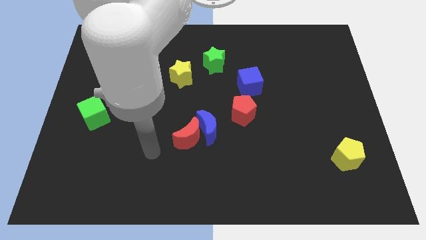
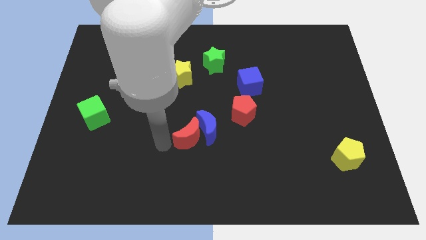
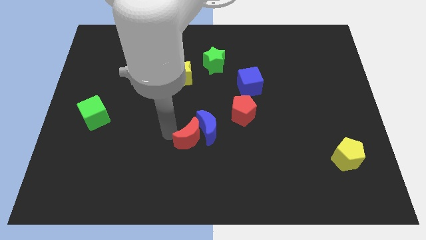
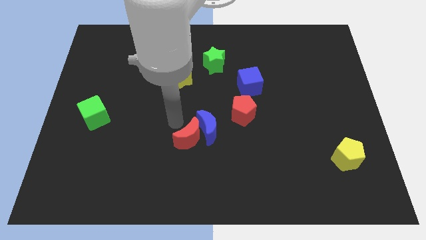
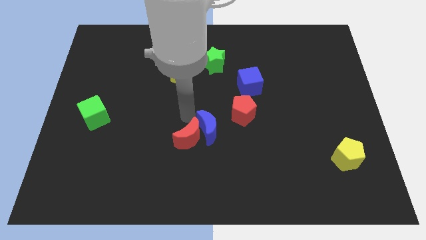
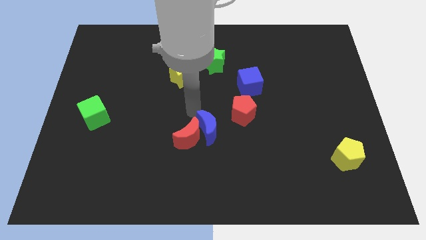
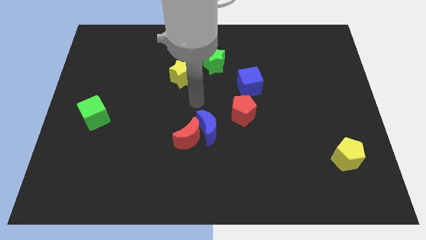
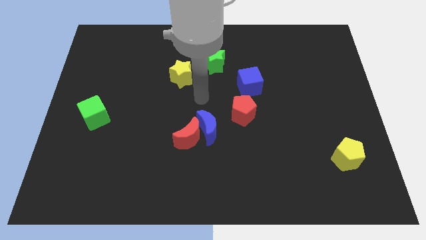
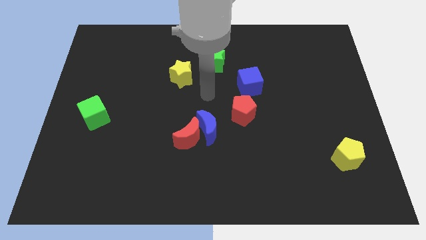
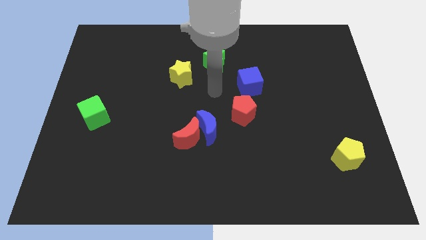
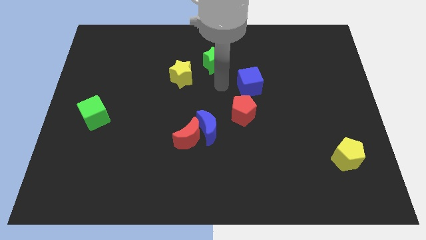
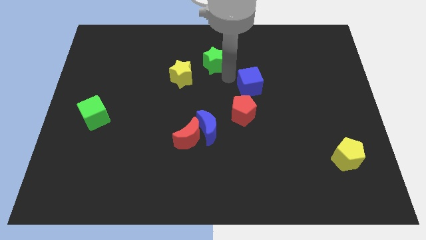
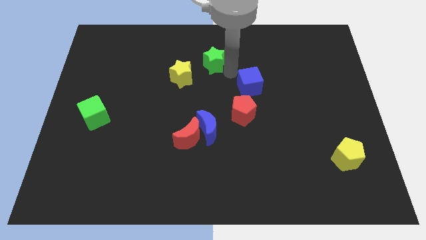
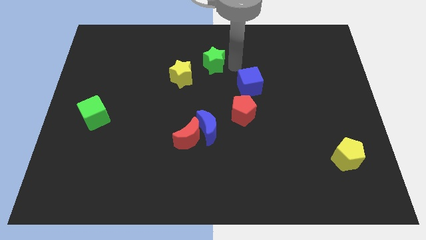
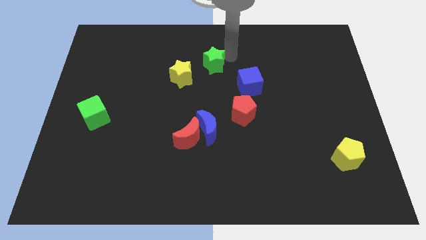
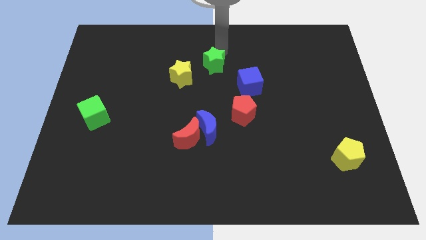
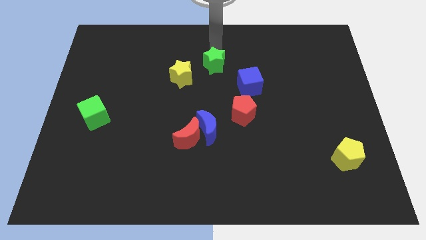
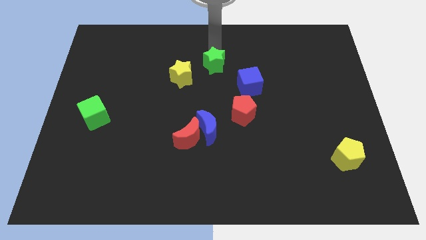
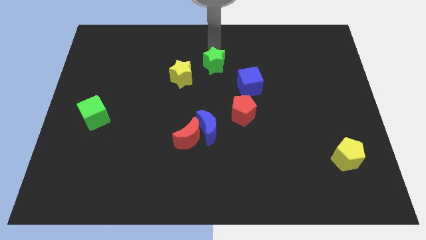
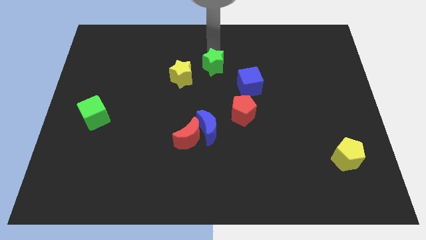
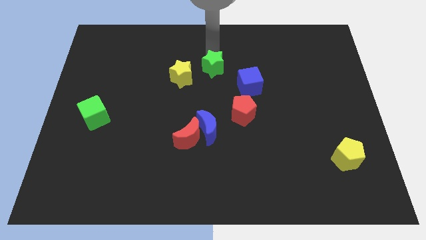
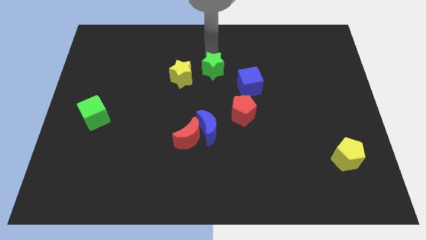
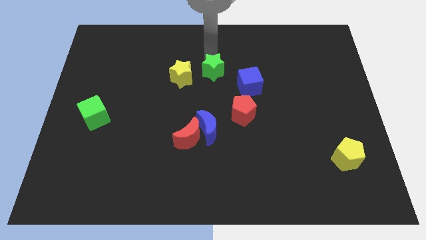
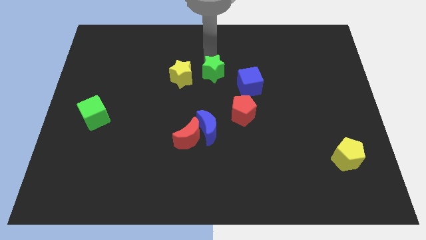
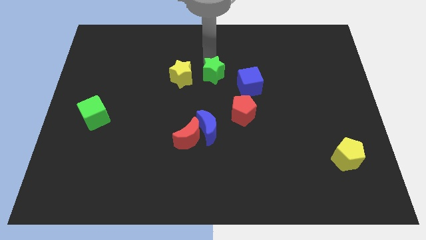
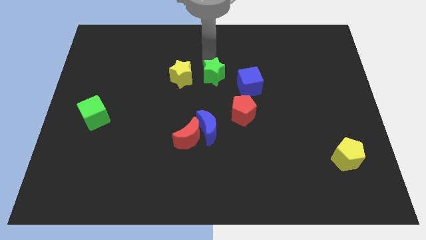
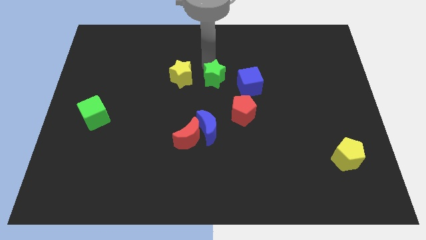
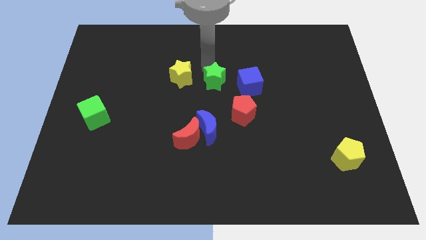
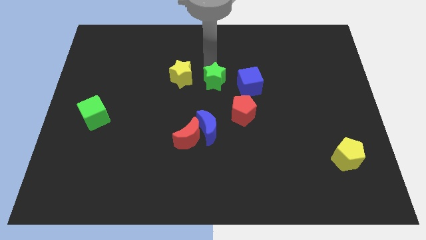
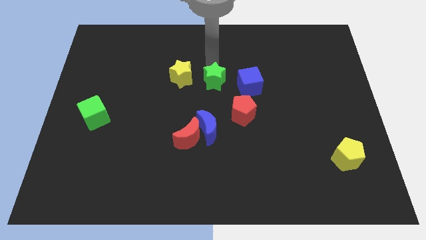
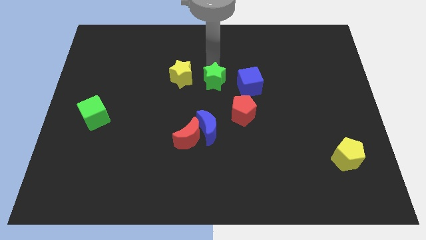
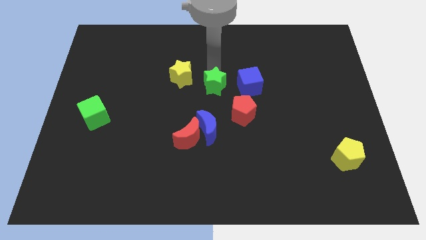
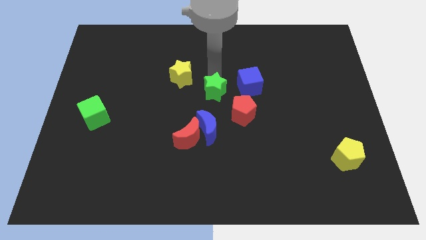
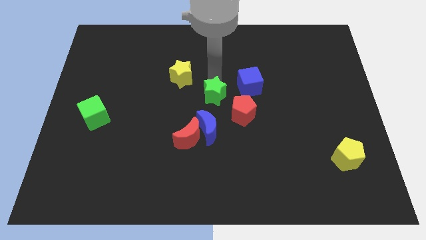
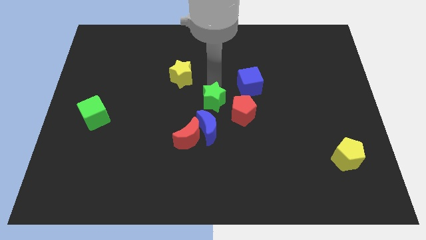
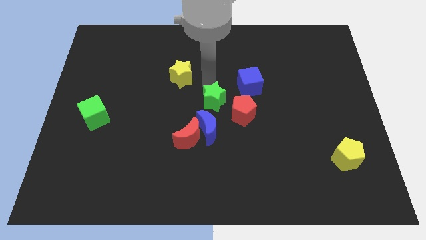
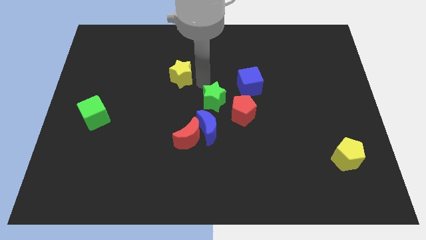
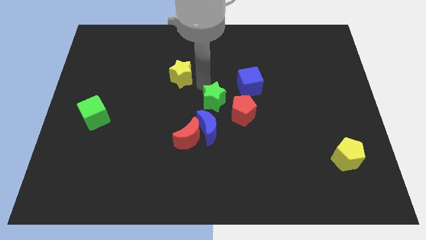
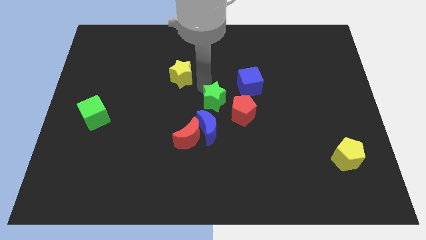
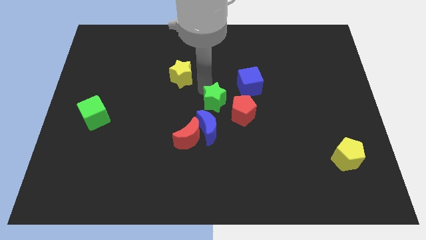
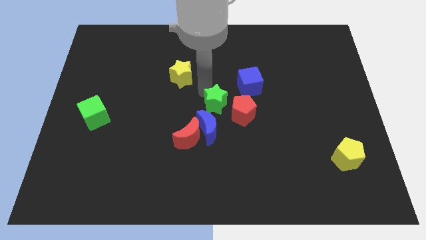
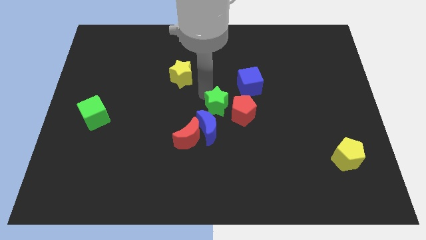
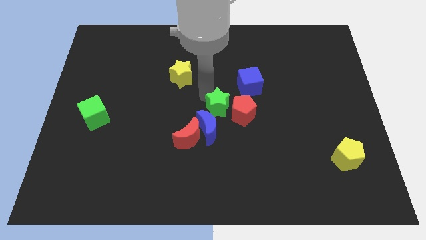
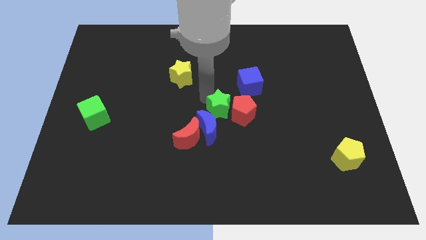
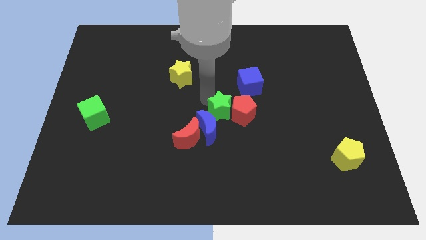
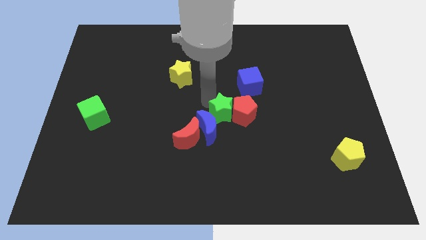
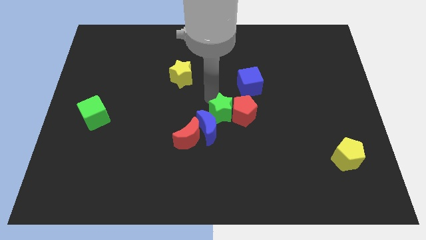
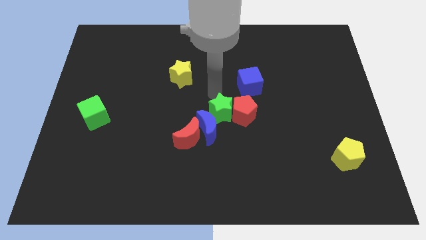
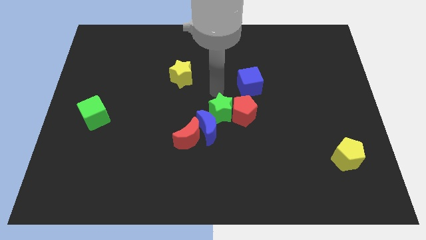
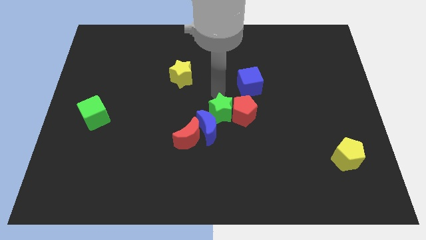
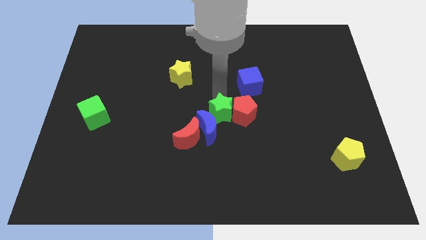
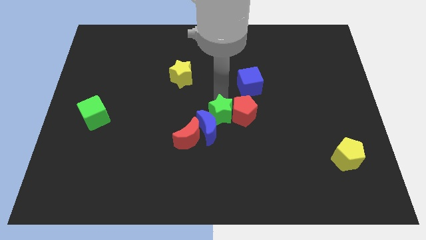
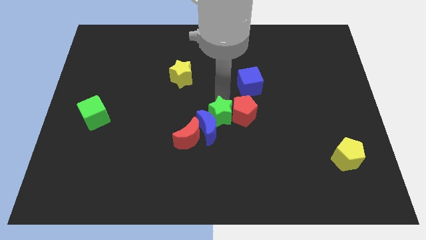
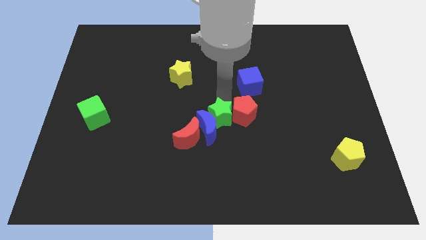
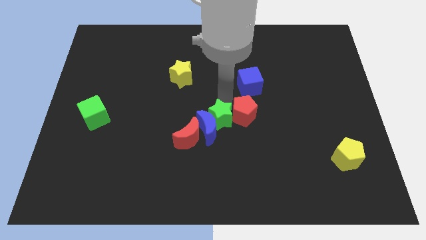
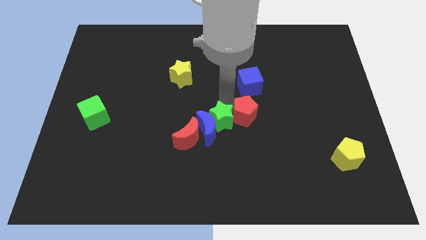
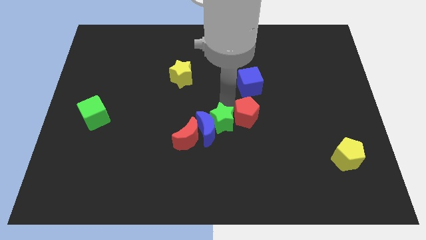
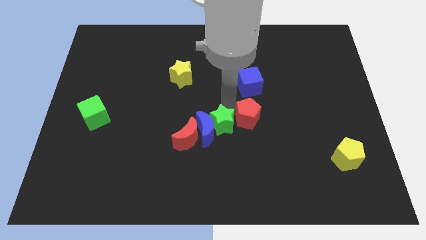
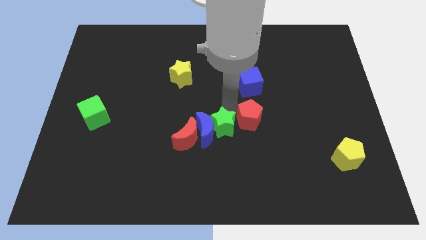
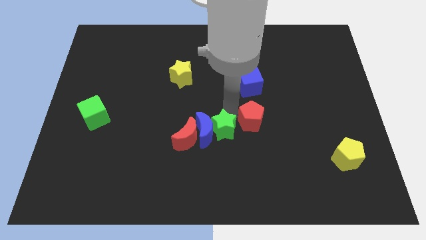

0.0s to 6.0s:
slide the green star down

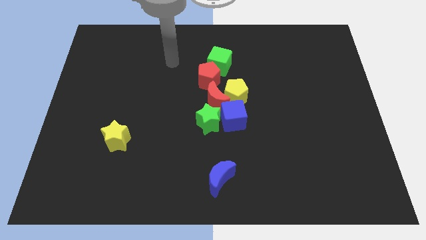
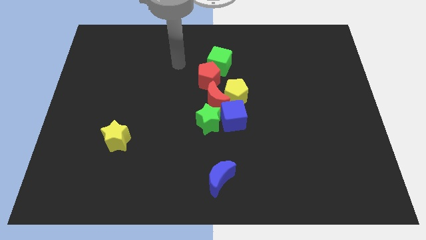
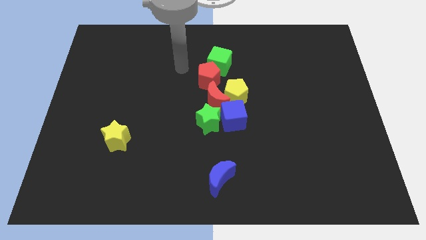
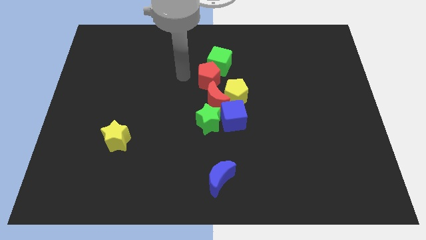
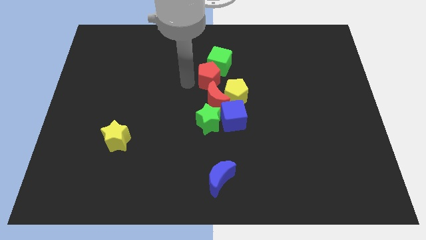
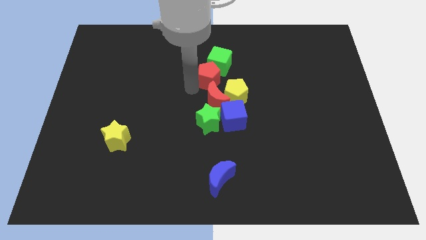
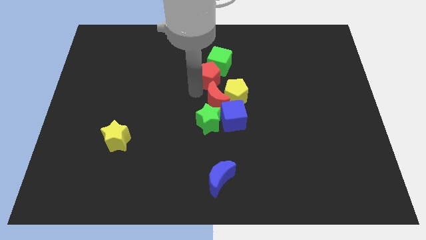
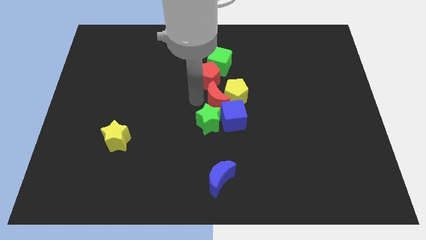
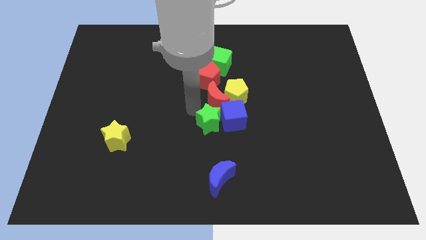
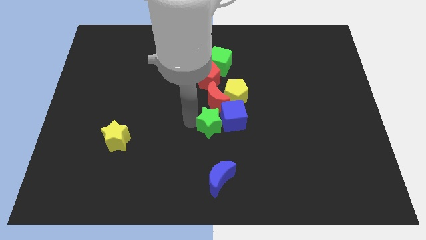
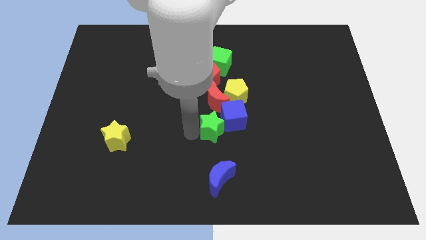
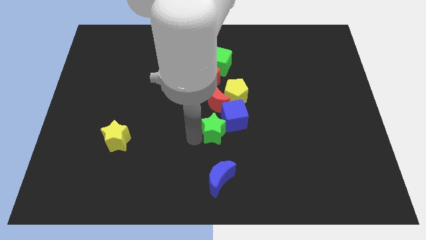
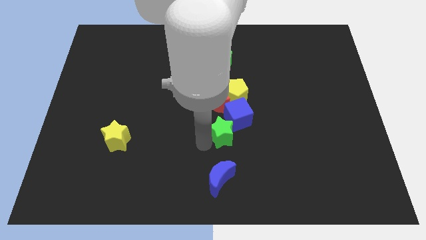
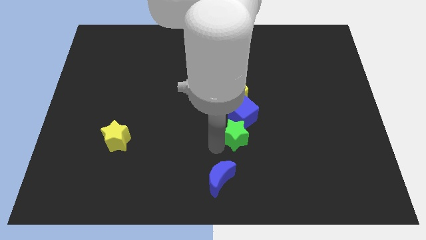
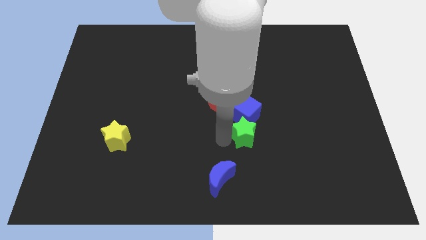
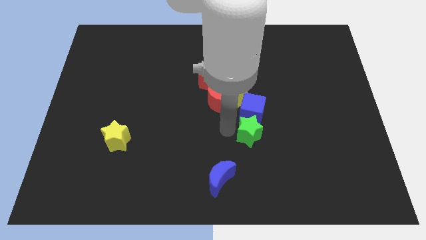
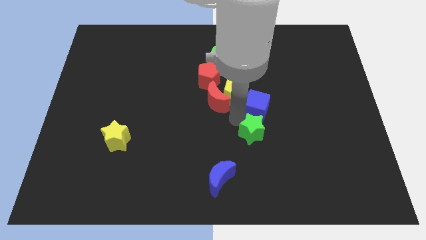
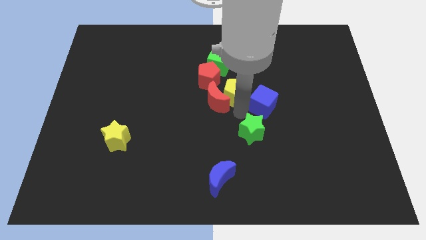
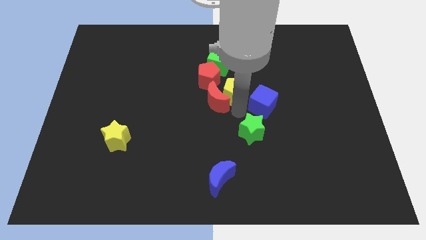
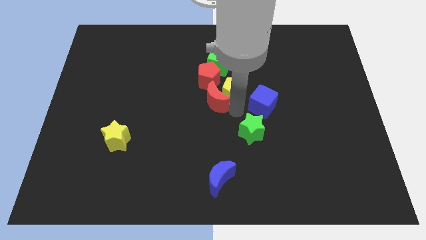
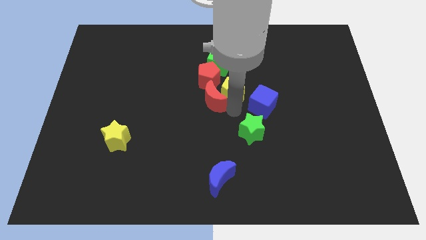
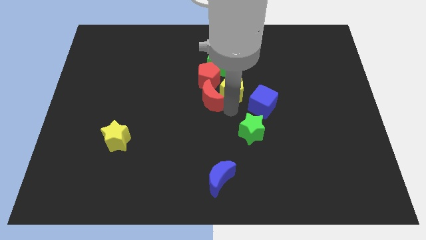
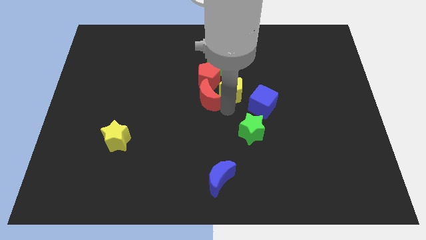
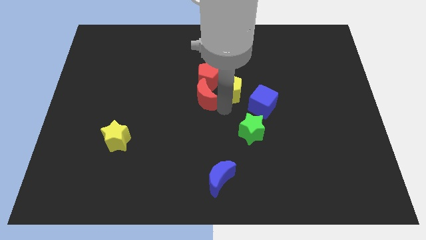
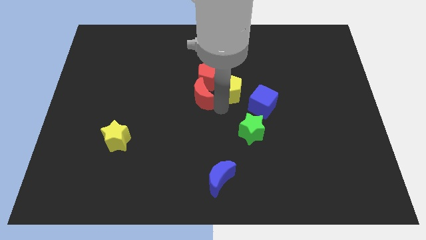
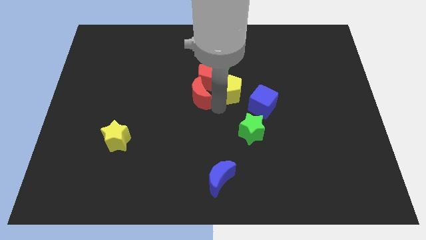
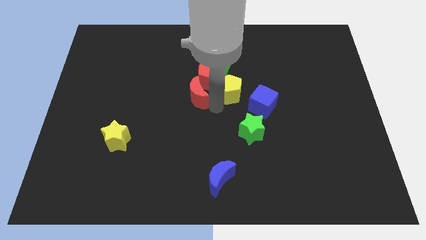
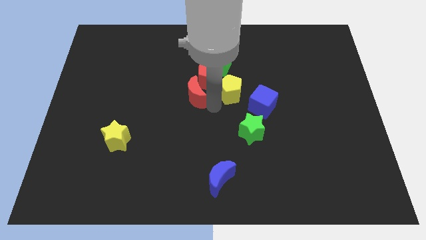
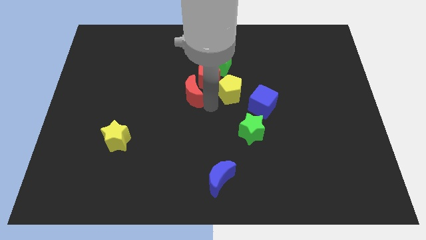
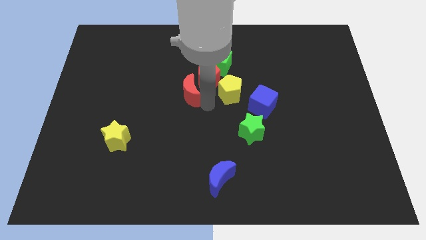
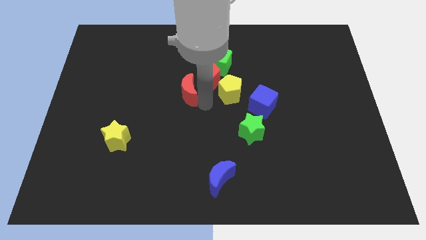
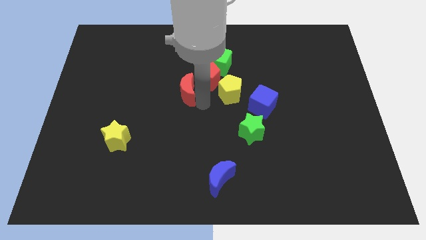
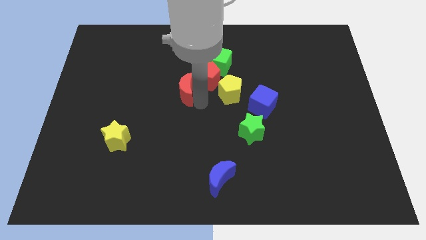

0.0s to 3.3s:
push the red moon diagonally upwards and left a bit
